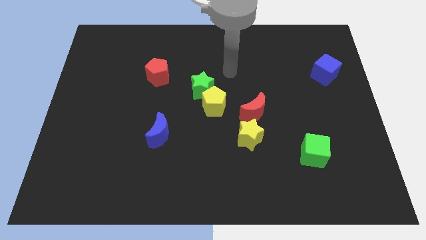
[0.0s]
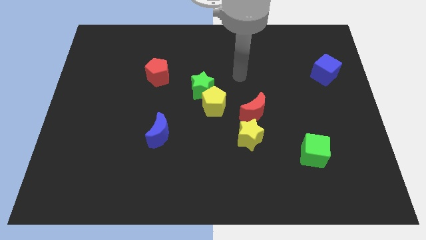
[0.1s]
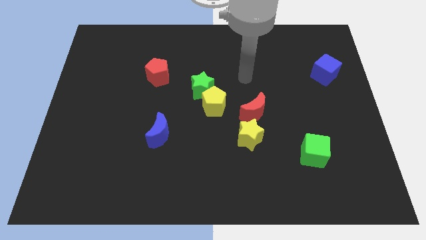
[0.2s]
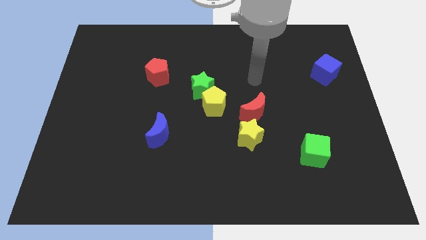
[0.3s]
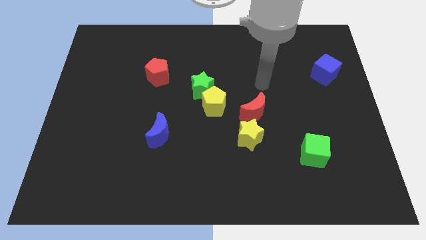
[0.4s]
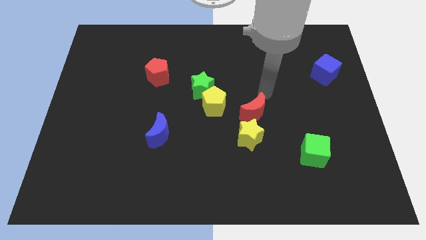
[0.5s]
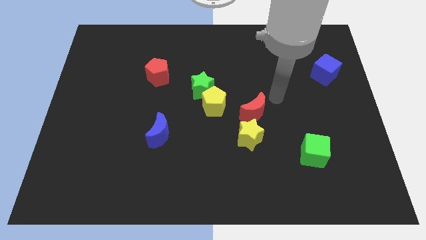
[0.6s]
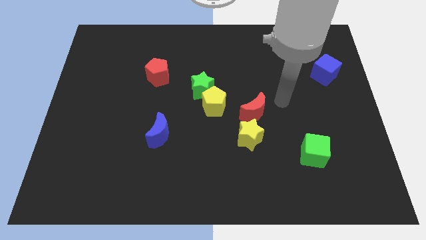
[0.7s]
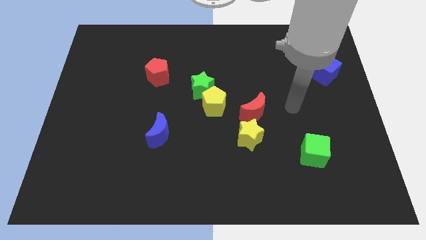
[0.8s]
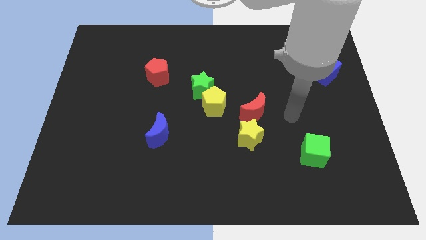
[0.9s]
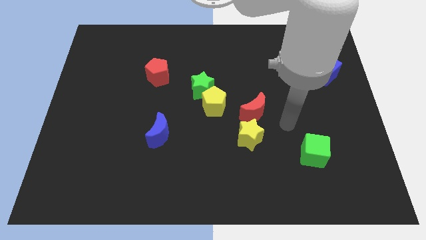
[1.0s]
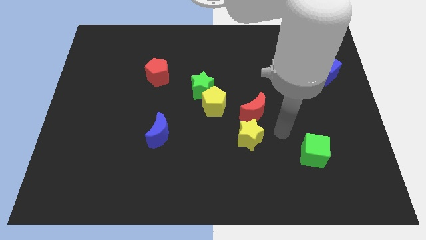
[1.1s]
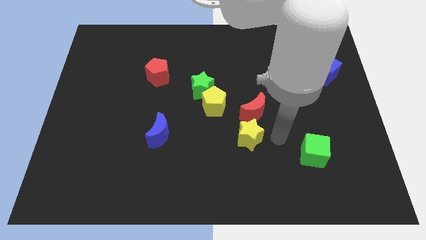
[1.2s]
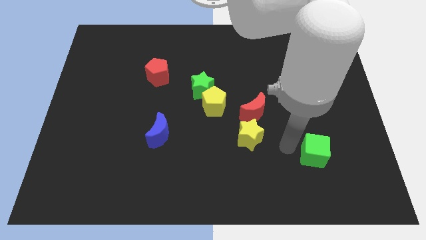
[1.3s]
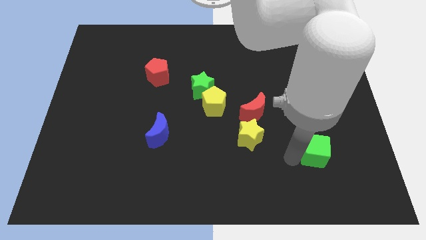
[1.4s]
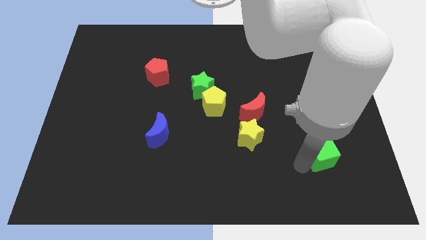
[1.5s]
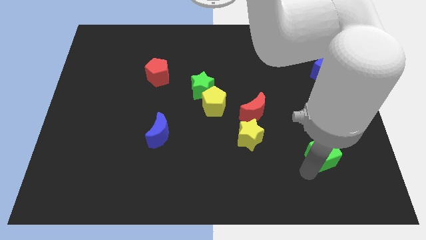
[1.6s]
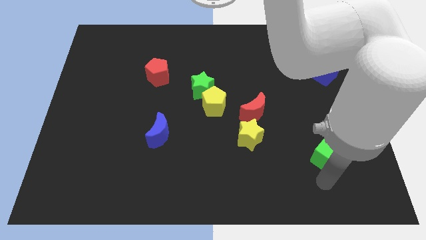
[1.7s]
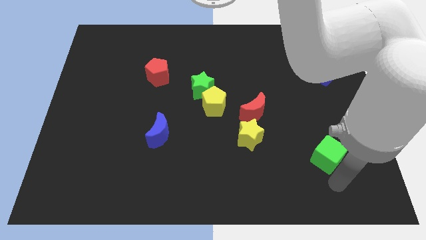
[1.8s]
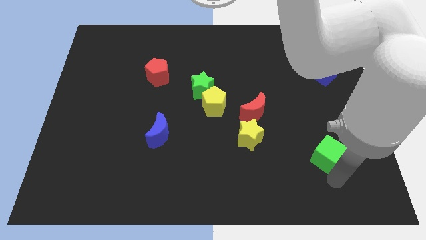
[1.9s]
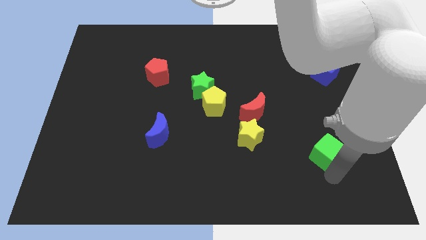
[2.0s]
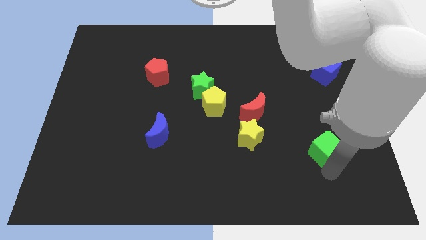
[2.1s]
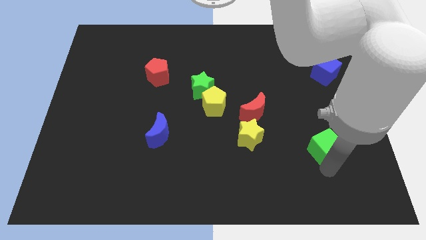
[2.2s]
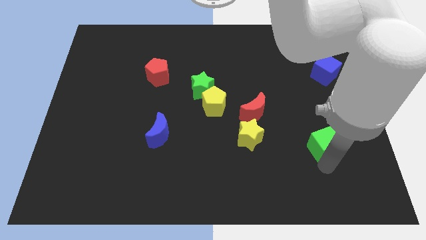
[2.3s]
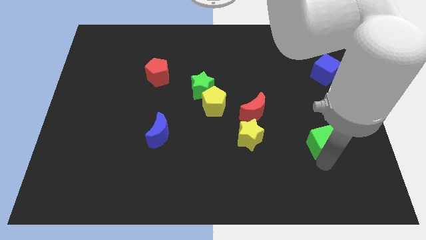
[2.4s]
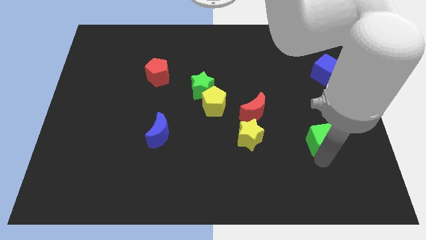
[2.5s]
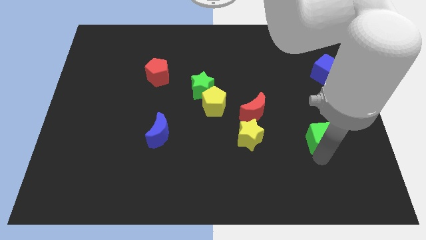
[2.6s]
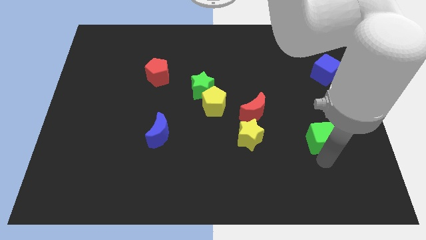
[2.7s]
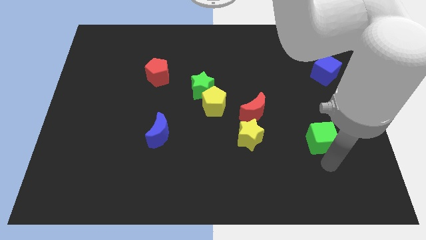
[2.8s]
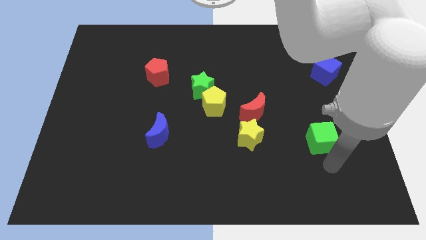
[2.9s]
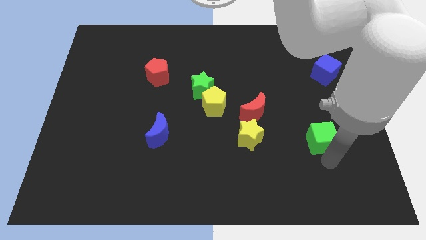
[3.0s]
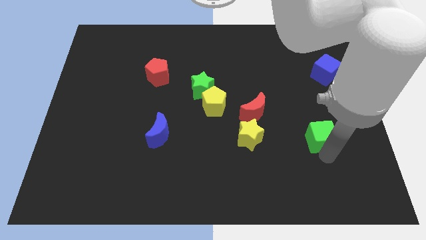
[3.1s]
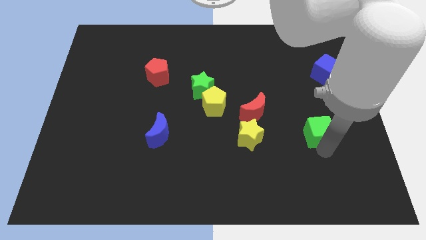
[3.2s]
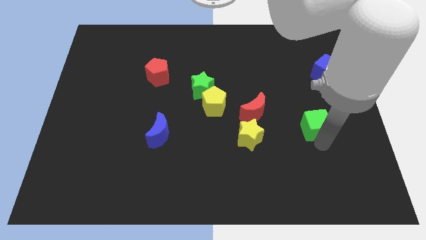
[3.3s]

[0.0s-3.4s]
slightly slide the green cube upwards

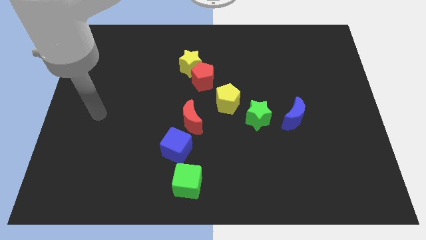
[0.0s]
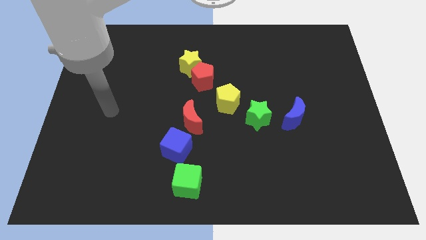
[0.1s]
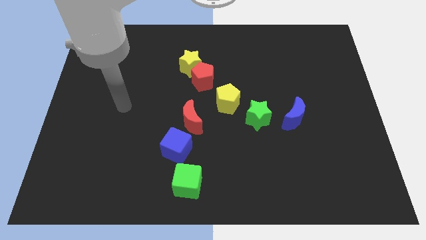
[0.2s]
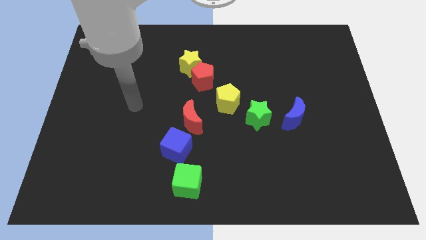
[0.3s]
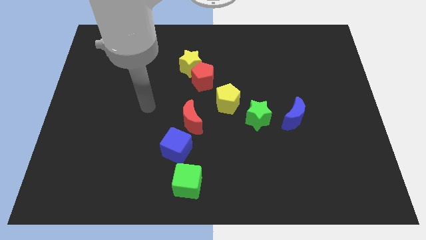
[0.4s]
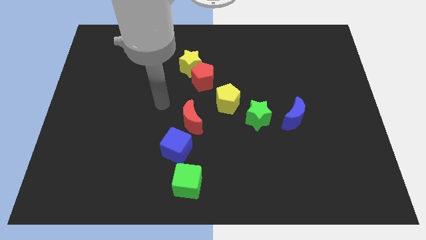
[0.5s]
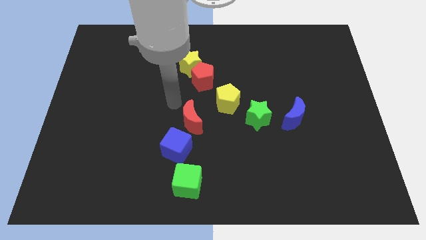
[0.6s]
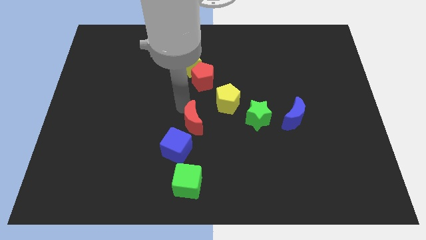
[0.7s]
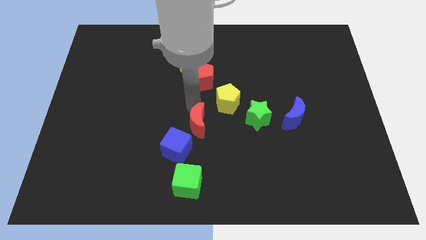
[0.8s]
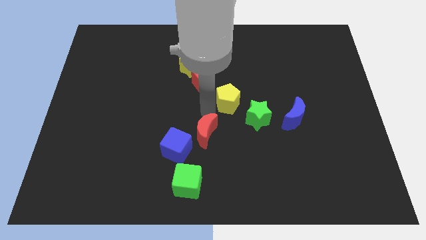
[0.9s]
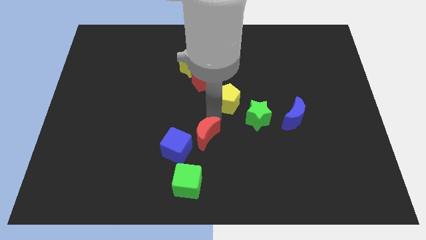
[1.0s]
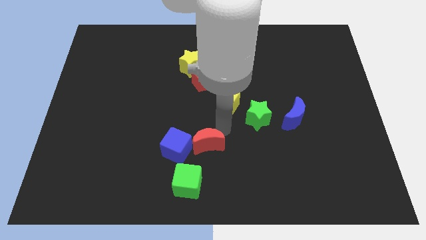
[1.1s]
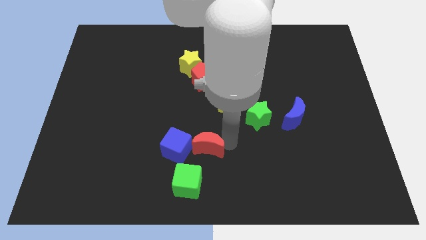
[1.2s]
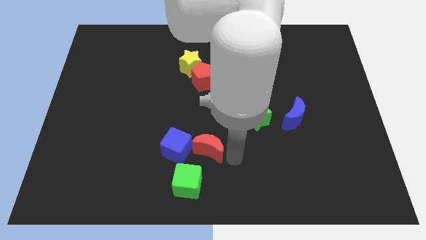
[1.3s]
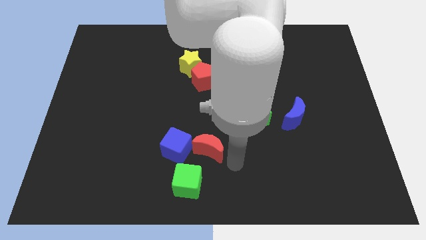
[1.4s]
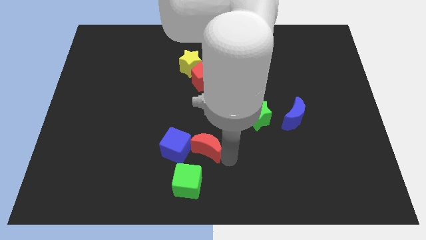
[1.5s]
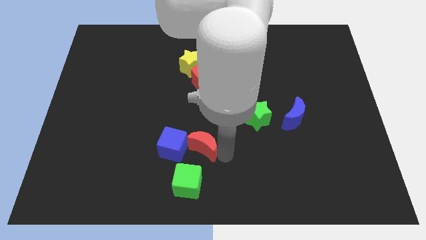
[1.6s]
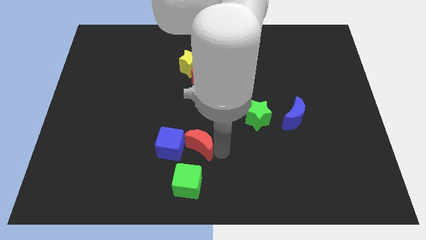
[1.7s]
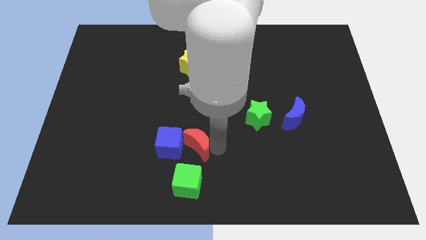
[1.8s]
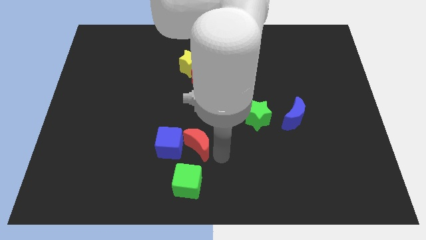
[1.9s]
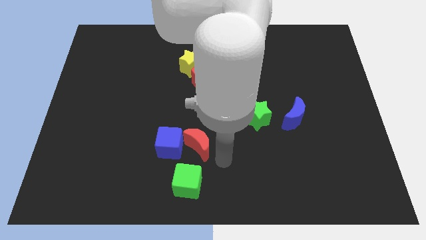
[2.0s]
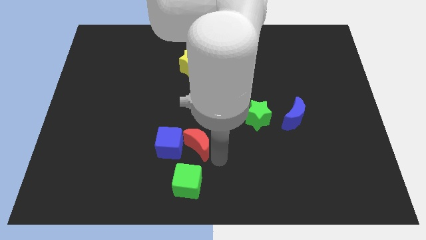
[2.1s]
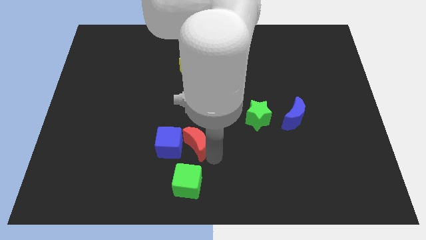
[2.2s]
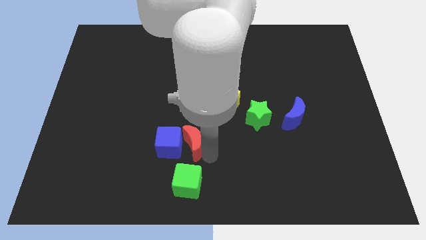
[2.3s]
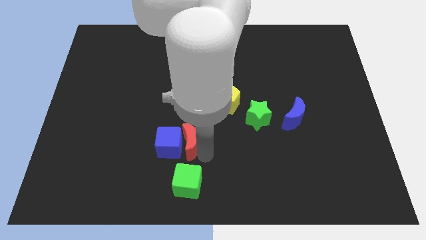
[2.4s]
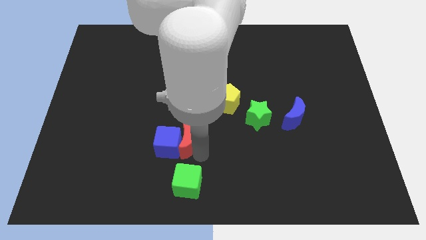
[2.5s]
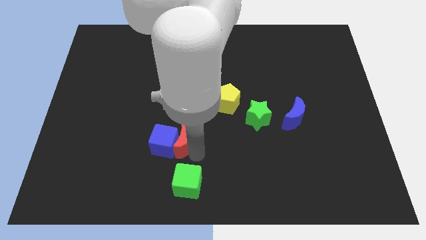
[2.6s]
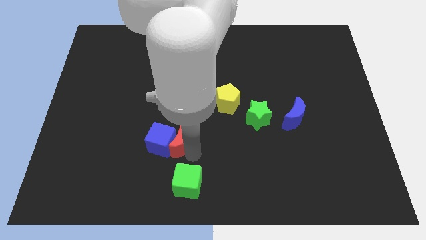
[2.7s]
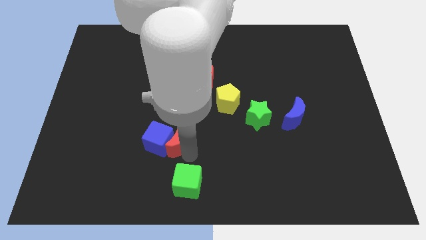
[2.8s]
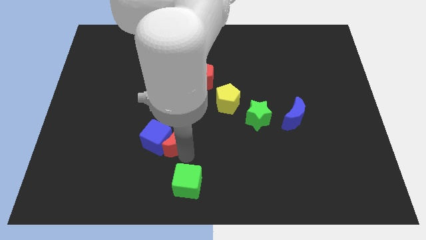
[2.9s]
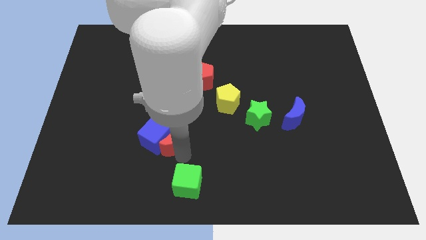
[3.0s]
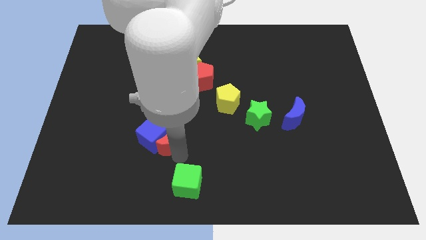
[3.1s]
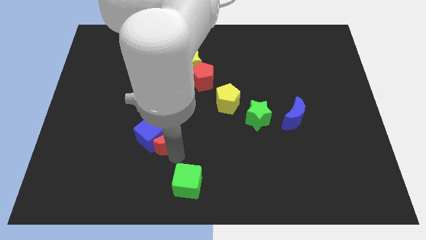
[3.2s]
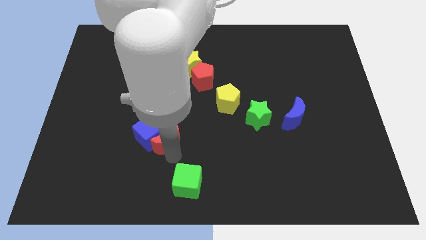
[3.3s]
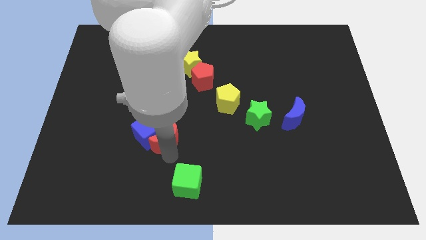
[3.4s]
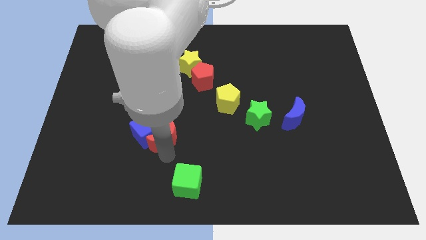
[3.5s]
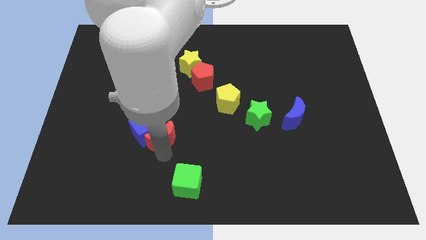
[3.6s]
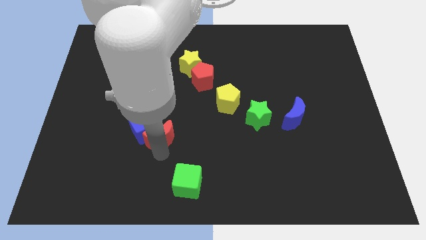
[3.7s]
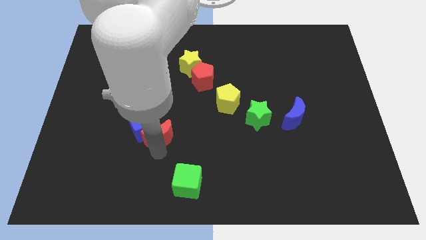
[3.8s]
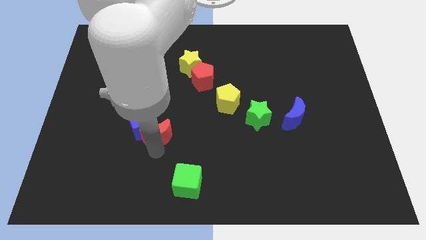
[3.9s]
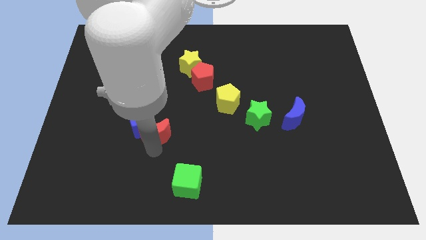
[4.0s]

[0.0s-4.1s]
move the red moon to the left a little bit

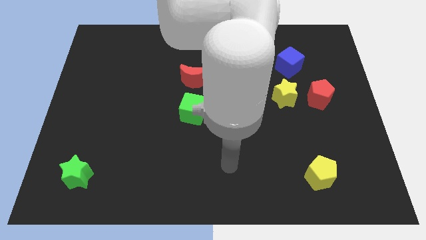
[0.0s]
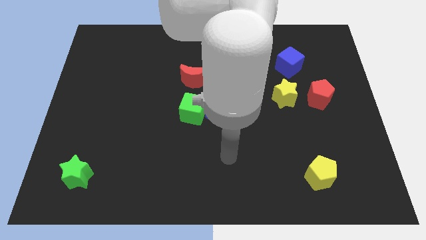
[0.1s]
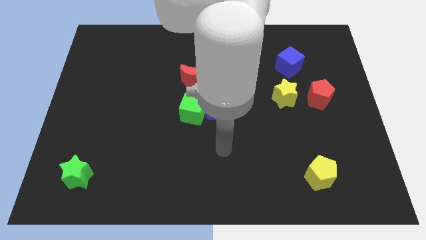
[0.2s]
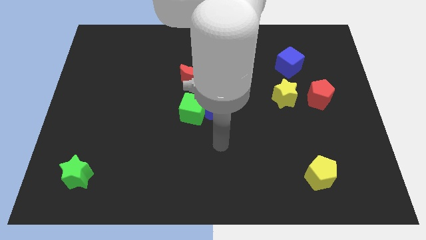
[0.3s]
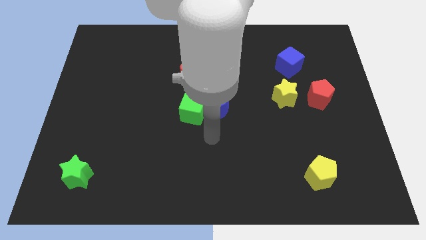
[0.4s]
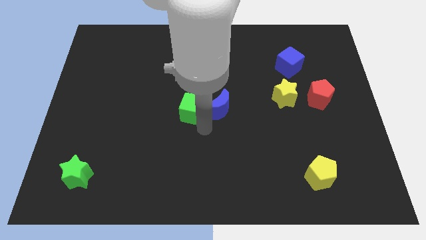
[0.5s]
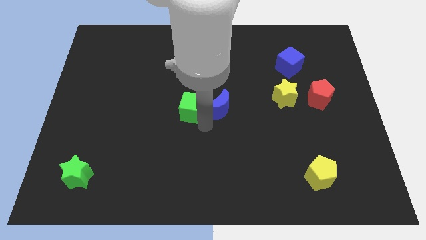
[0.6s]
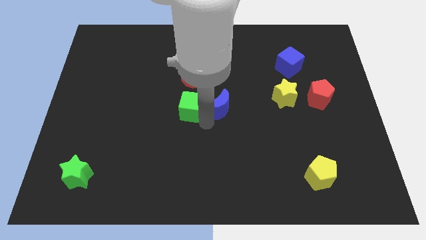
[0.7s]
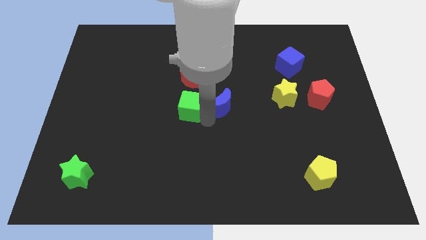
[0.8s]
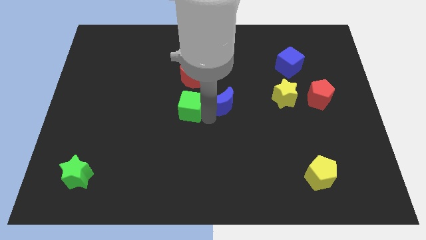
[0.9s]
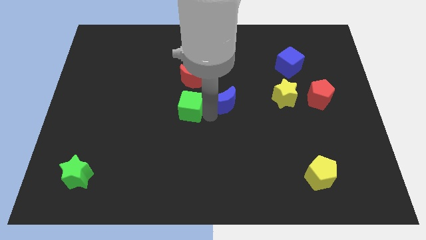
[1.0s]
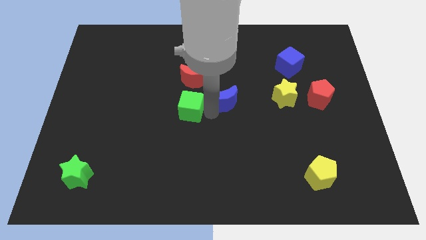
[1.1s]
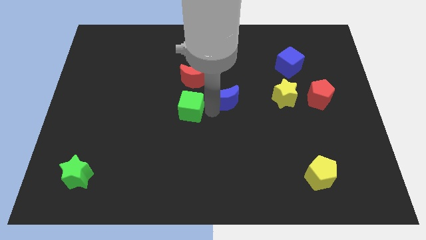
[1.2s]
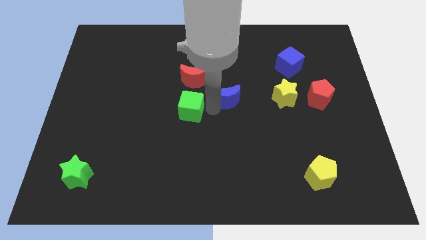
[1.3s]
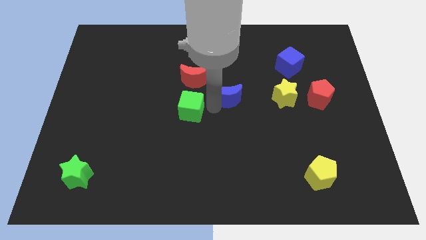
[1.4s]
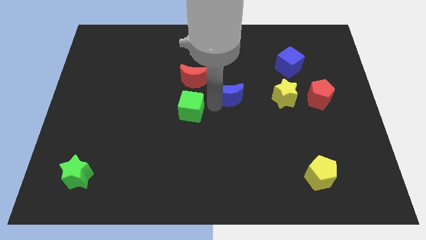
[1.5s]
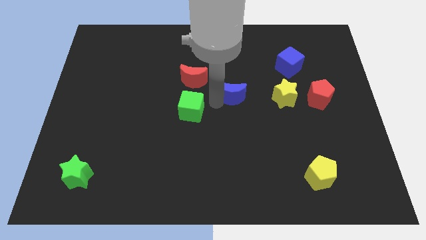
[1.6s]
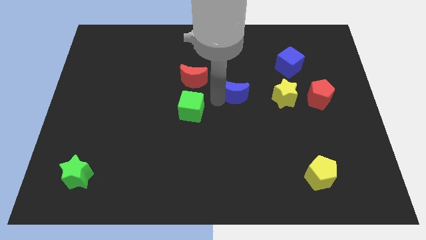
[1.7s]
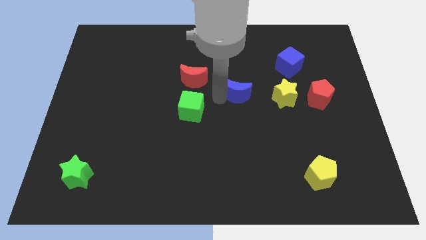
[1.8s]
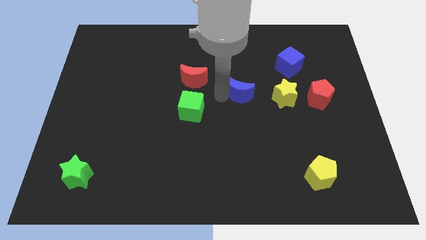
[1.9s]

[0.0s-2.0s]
move the blue moon somewhat up and then right
